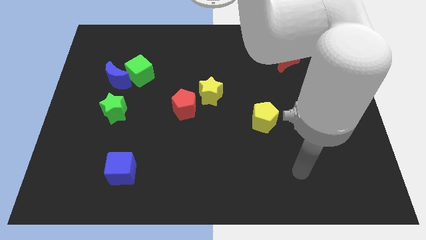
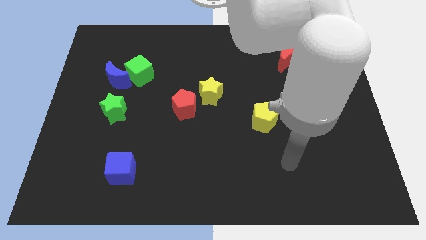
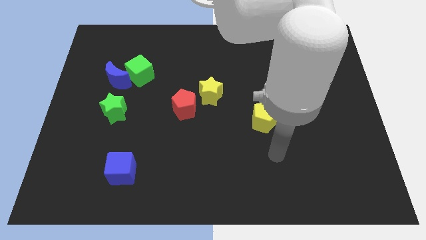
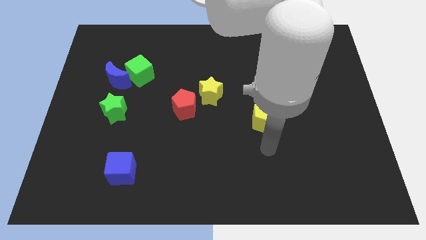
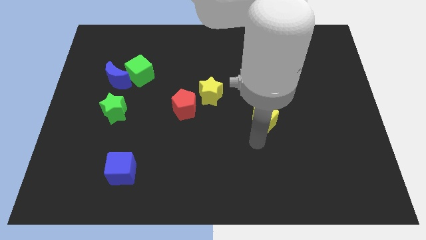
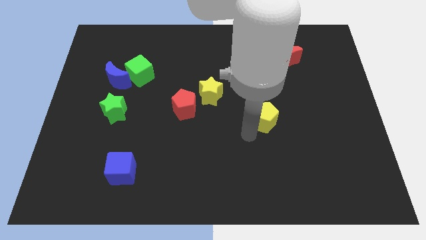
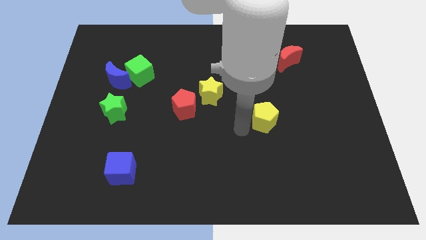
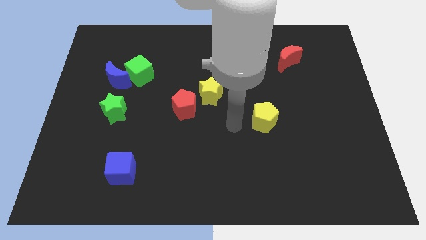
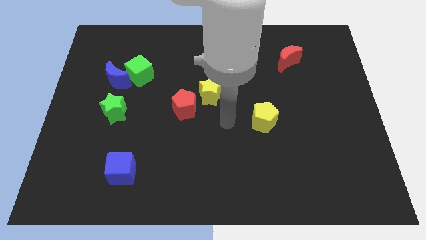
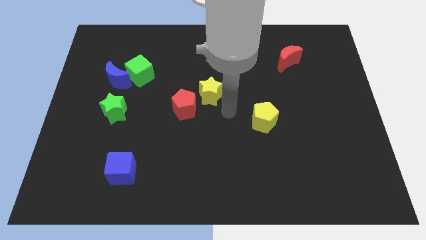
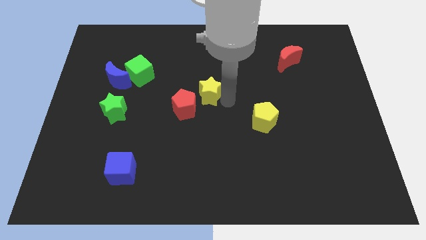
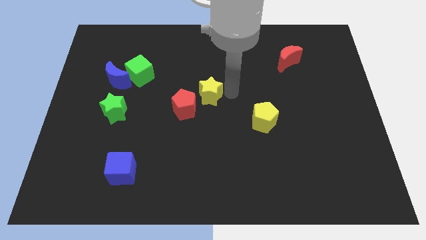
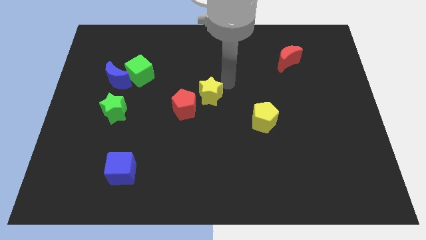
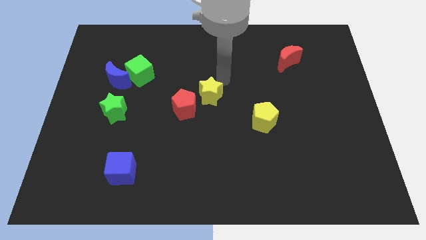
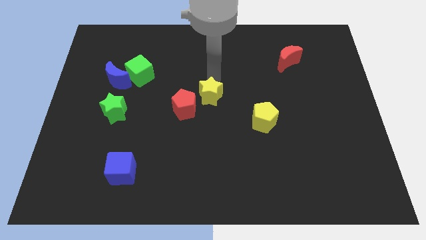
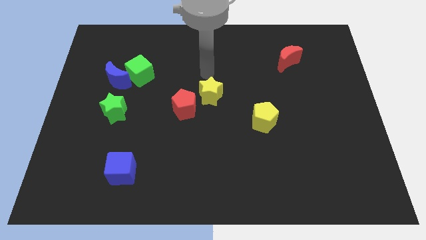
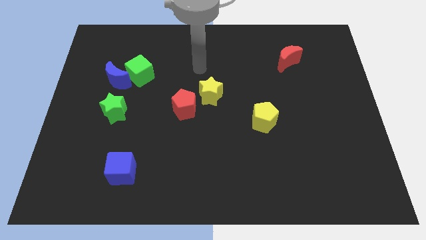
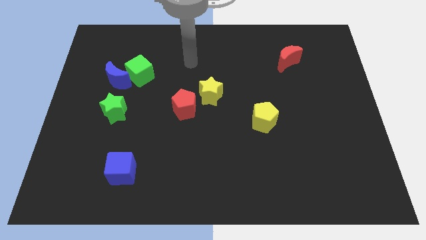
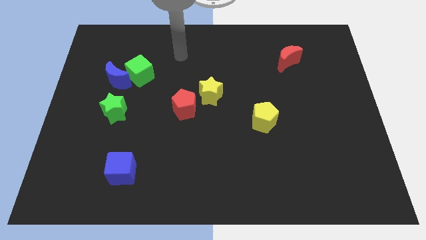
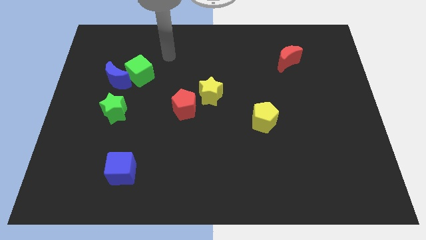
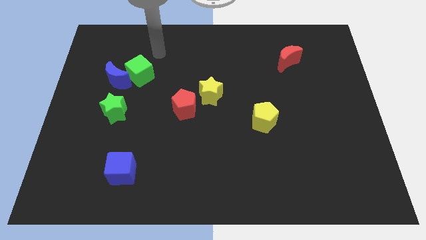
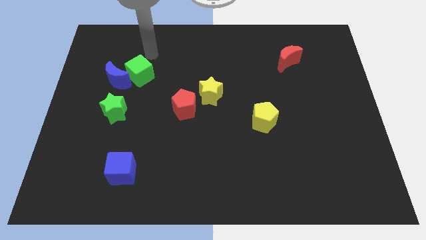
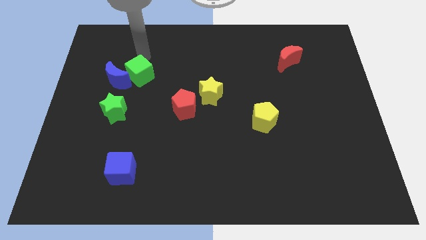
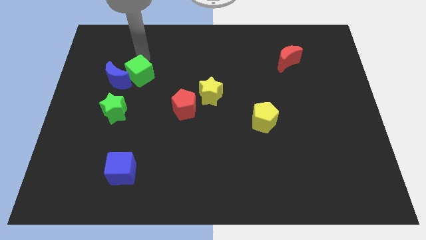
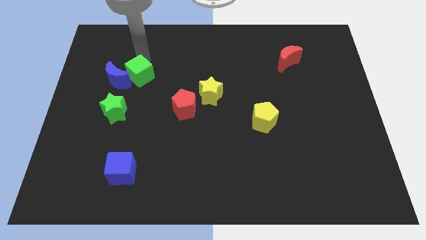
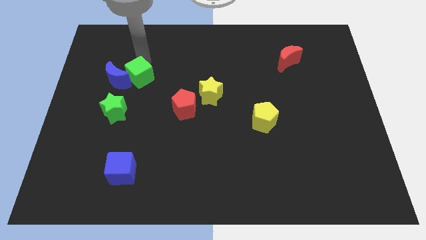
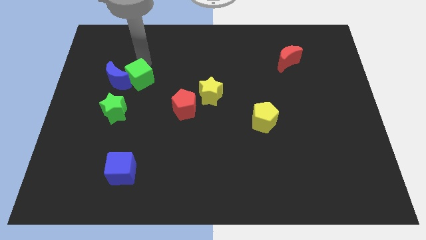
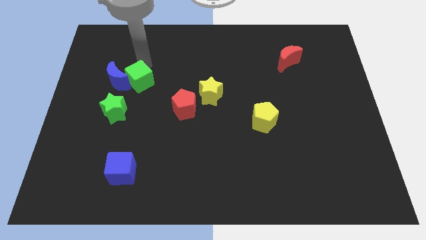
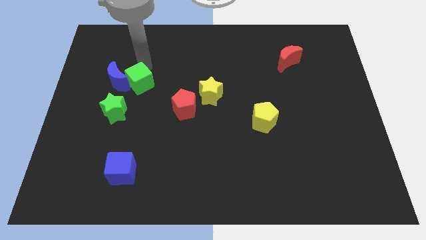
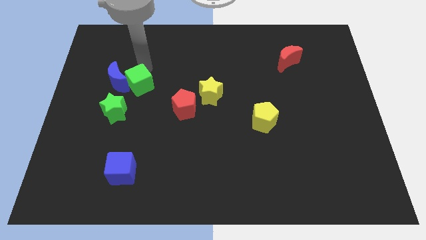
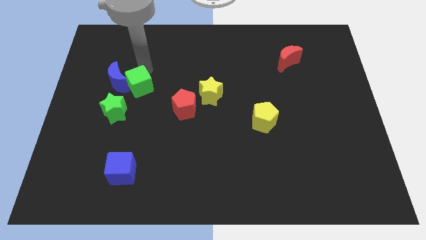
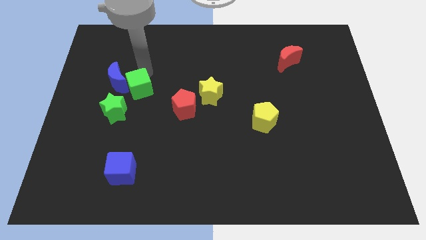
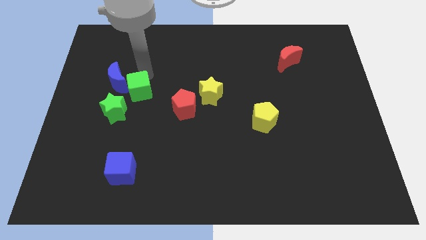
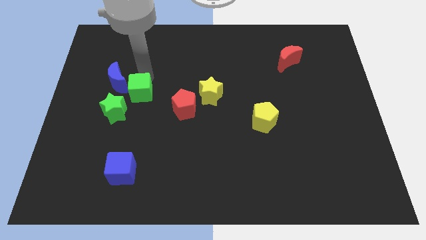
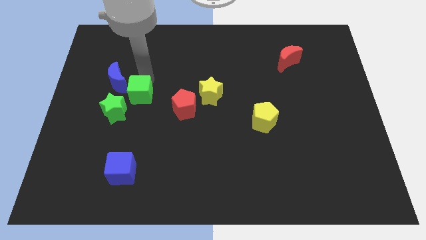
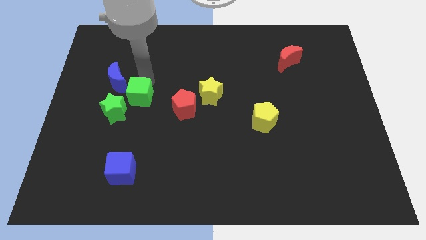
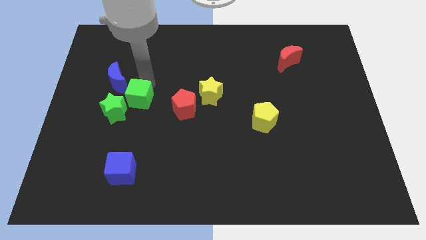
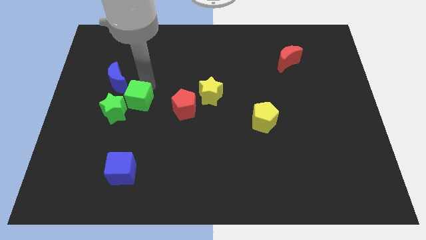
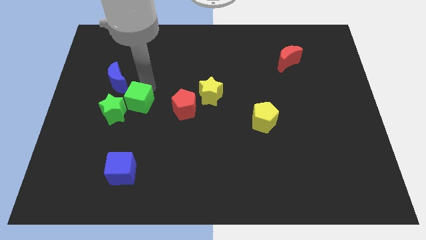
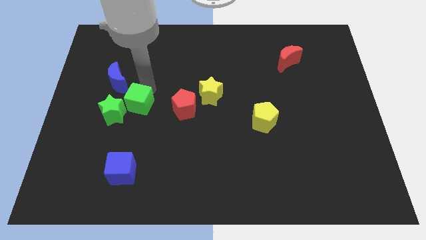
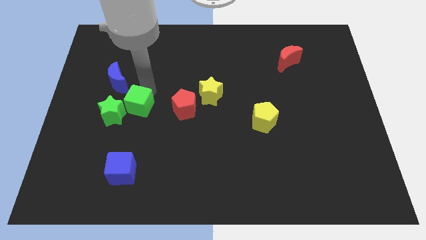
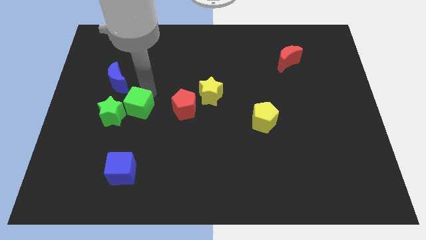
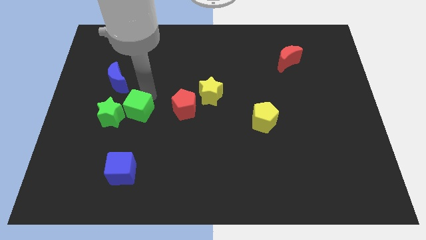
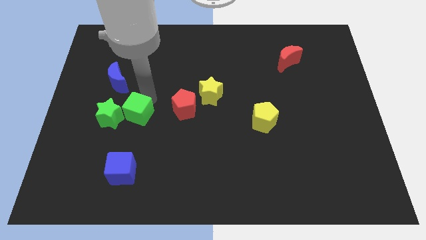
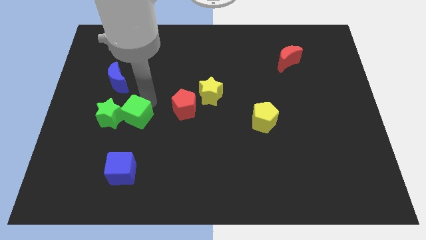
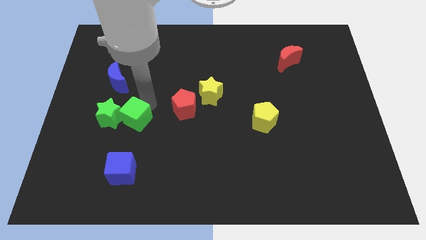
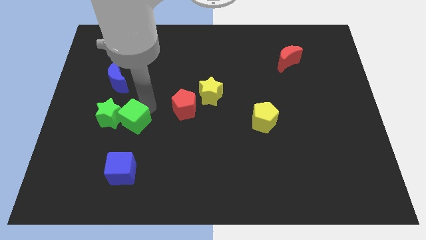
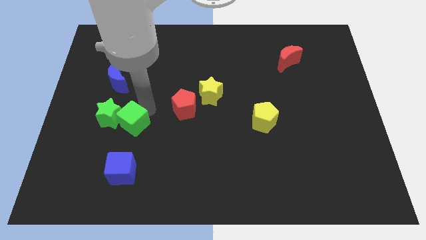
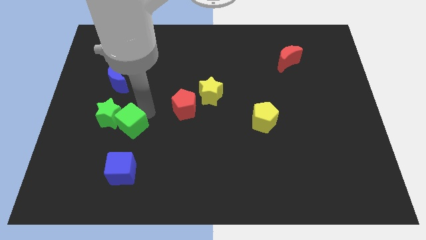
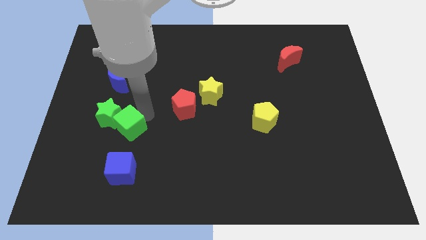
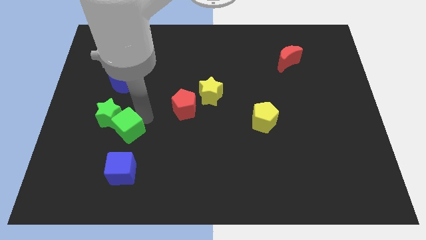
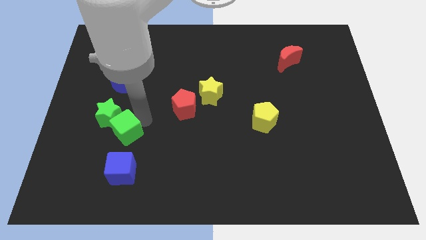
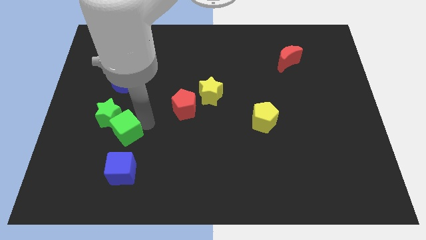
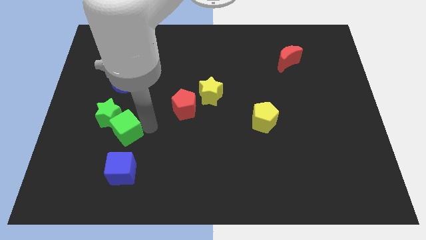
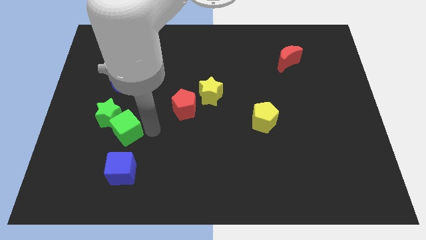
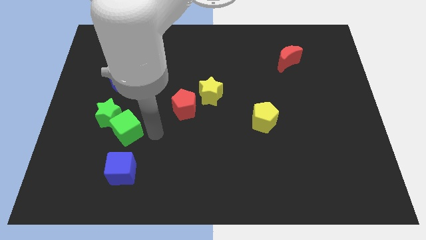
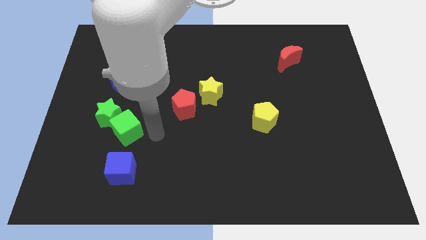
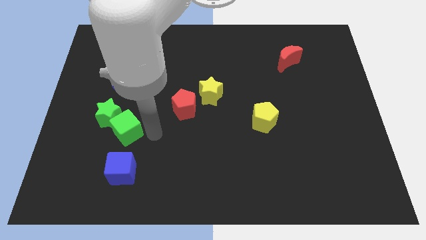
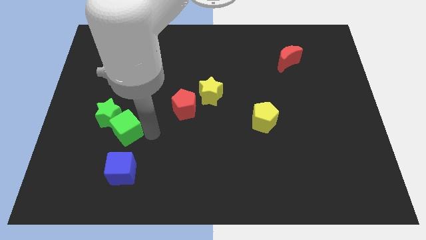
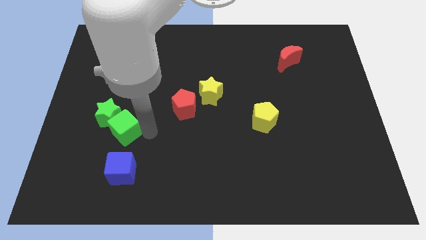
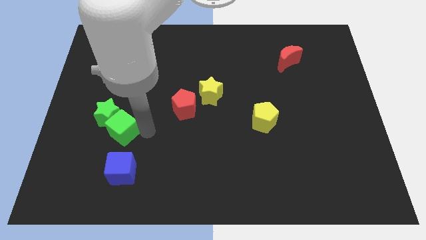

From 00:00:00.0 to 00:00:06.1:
move the green cube to the bottom side of the blue moon
